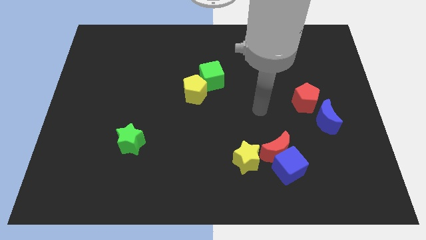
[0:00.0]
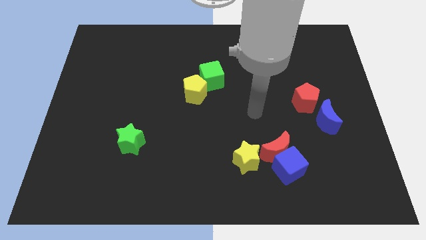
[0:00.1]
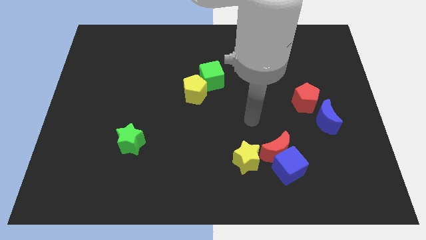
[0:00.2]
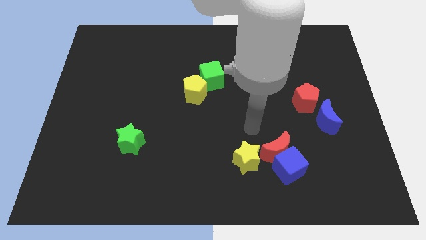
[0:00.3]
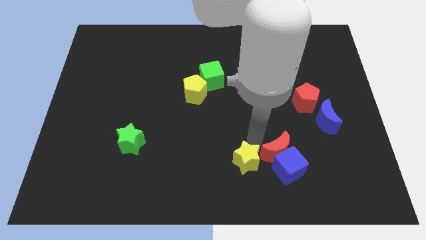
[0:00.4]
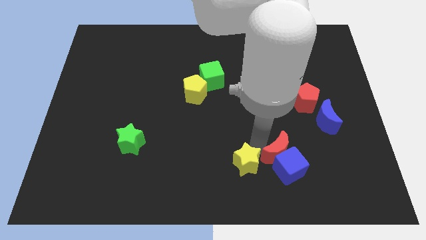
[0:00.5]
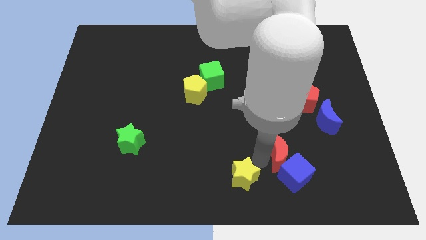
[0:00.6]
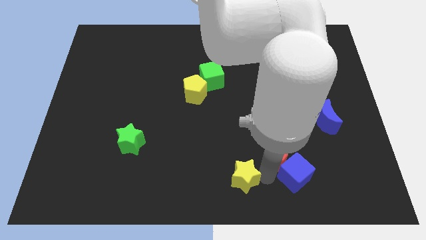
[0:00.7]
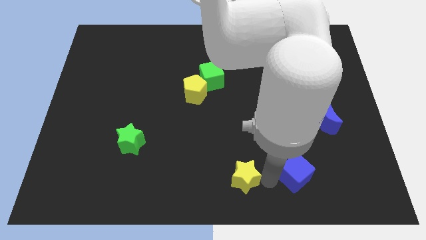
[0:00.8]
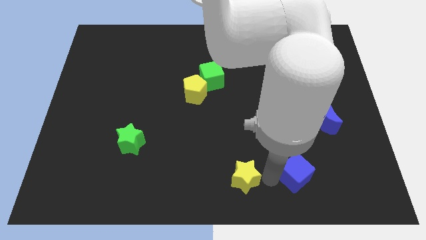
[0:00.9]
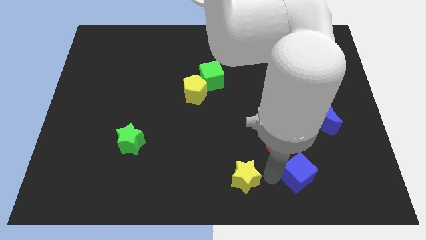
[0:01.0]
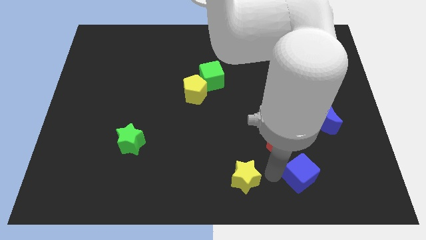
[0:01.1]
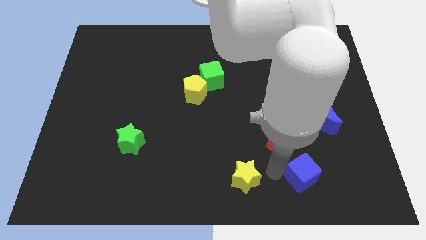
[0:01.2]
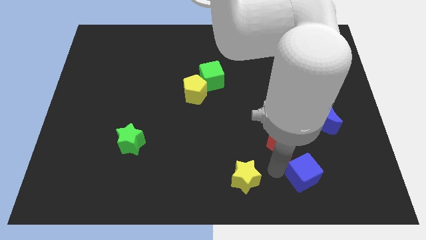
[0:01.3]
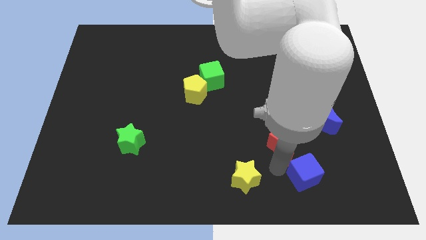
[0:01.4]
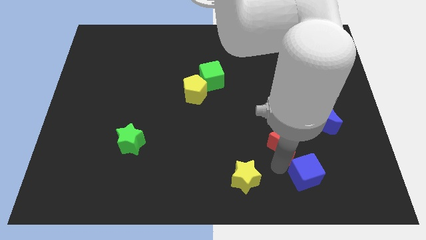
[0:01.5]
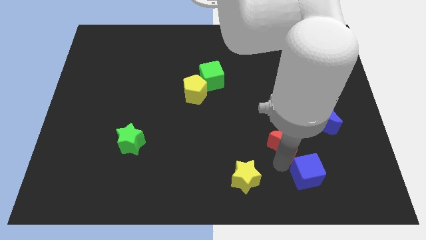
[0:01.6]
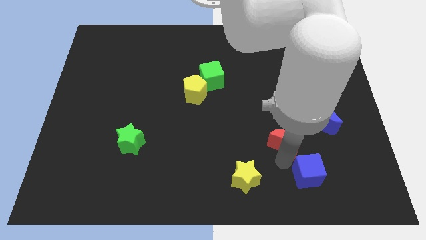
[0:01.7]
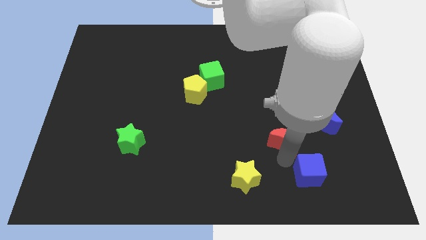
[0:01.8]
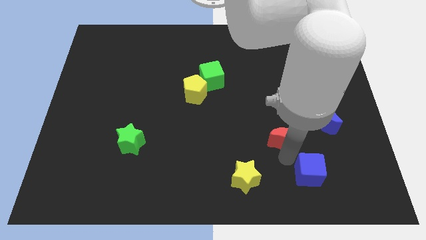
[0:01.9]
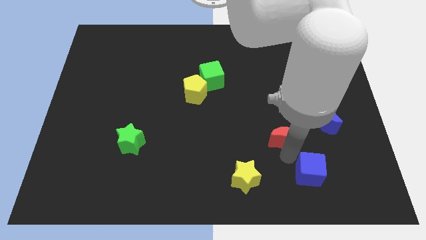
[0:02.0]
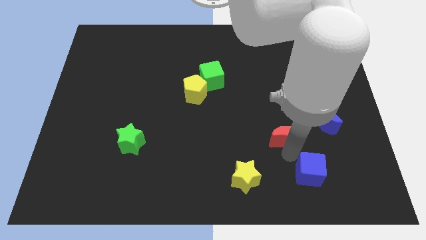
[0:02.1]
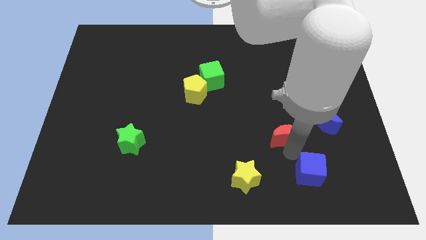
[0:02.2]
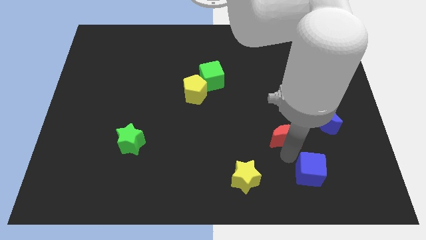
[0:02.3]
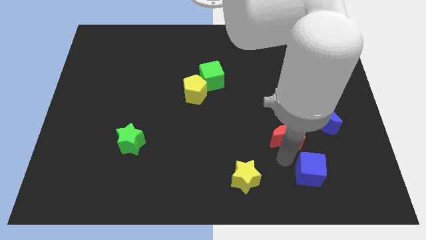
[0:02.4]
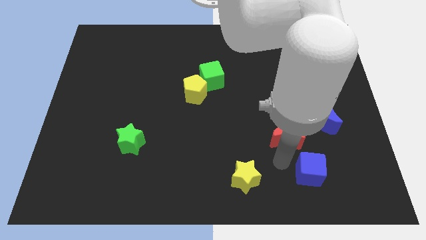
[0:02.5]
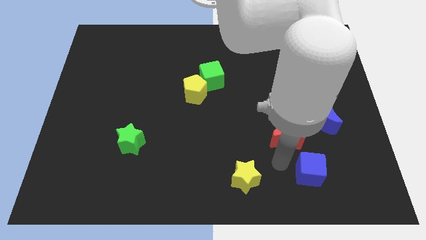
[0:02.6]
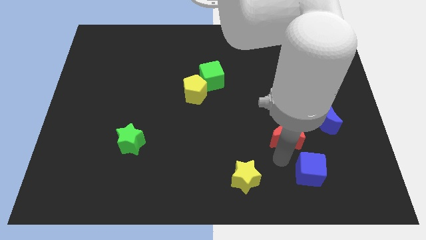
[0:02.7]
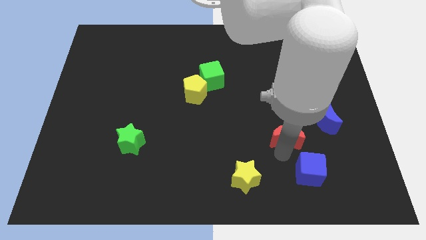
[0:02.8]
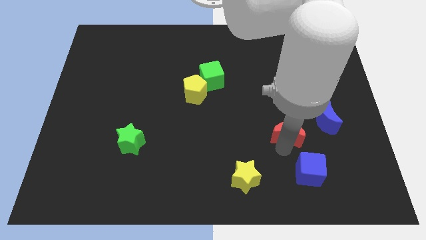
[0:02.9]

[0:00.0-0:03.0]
pull the red moon apart from the blue cube and yellow star

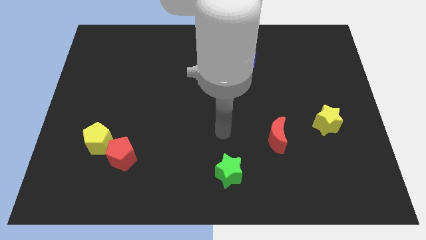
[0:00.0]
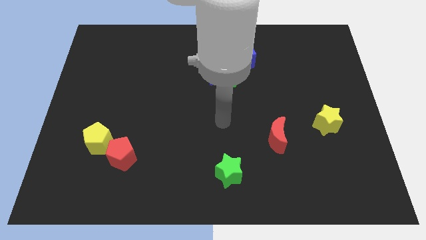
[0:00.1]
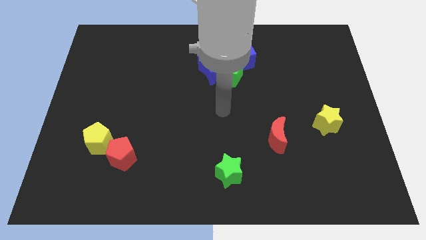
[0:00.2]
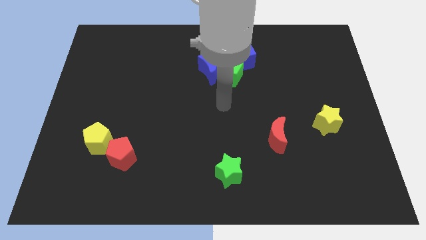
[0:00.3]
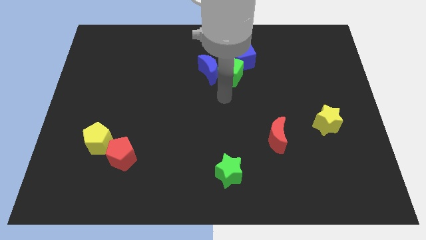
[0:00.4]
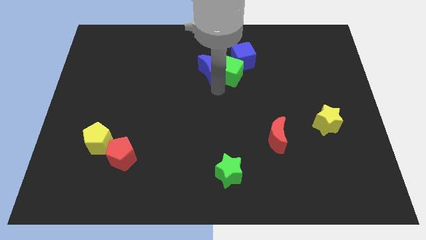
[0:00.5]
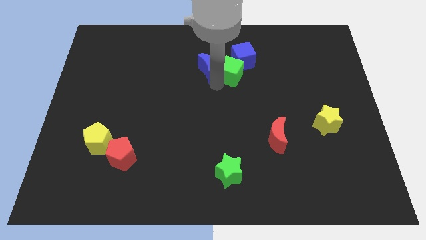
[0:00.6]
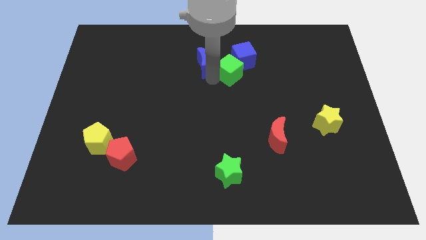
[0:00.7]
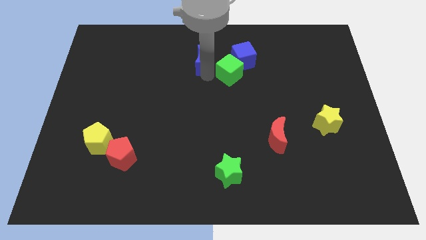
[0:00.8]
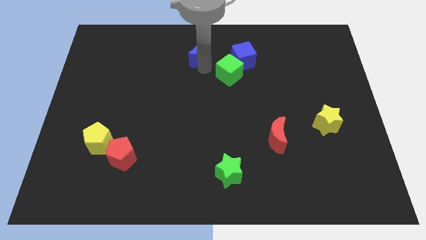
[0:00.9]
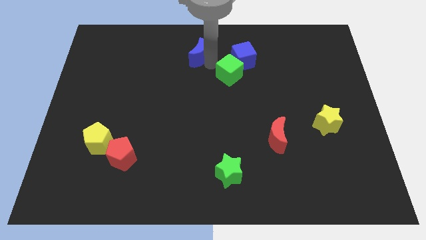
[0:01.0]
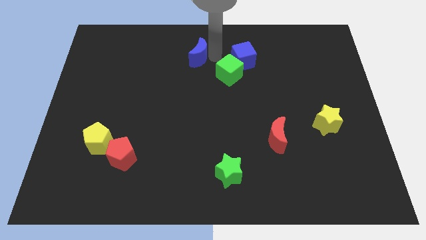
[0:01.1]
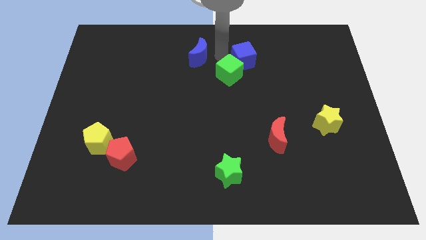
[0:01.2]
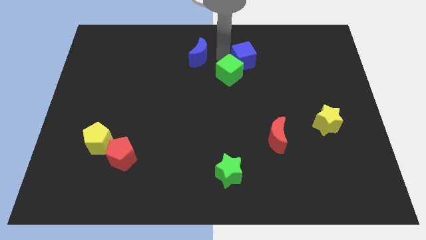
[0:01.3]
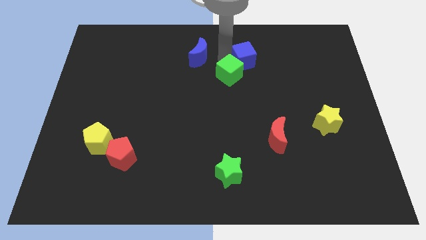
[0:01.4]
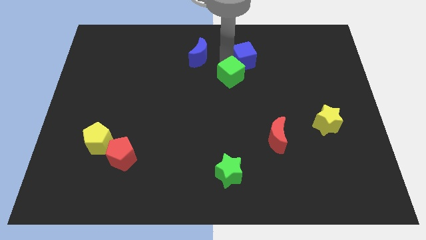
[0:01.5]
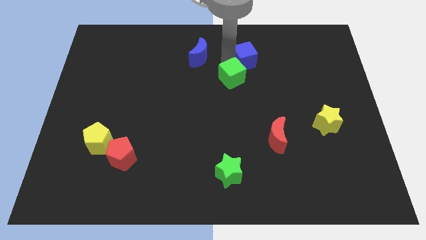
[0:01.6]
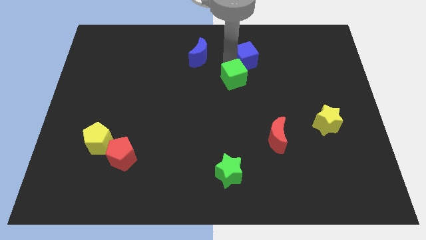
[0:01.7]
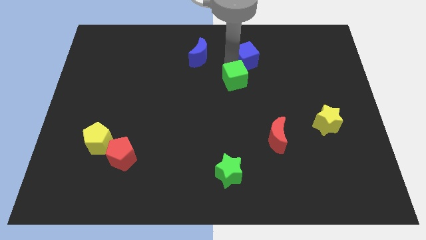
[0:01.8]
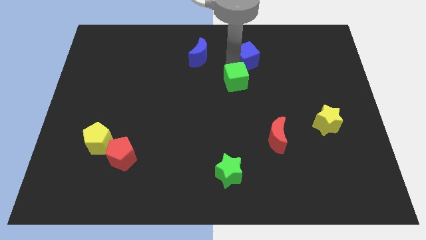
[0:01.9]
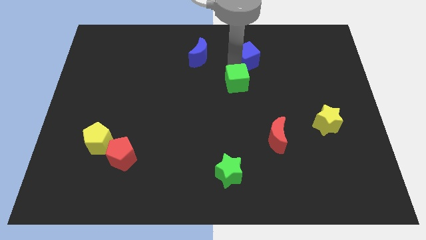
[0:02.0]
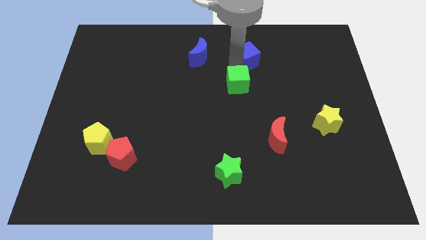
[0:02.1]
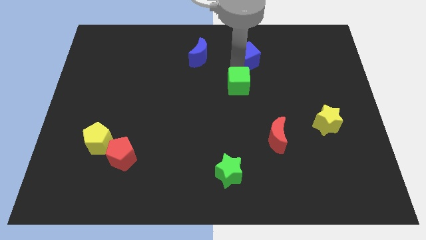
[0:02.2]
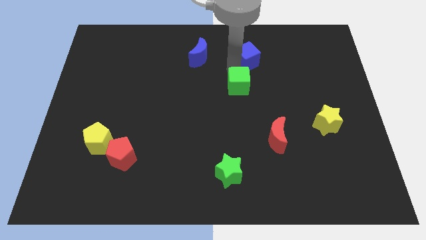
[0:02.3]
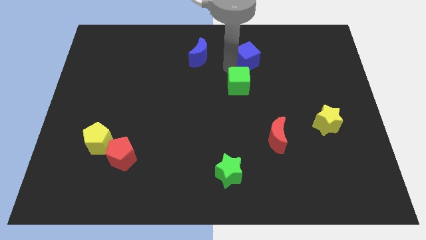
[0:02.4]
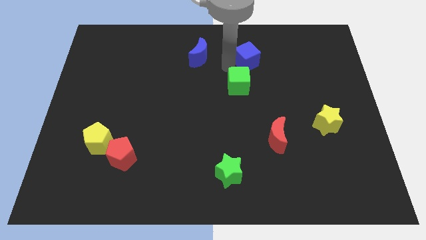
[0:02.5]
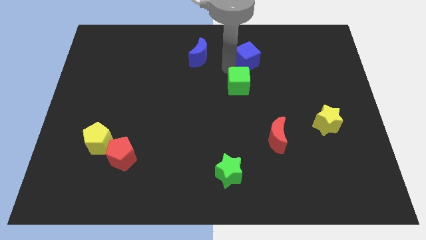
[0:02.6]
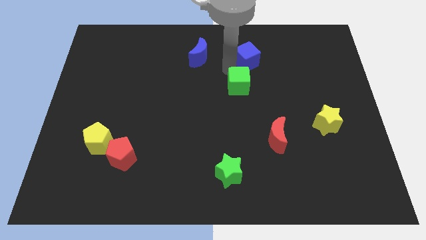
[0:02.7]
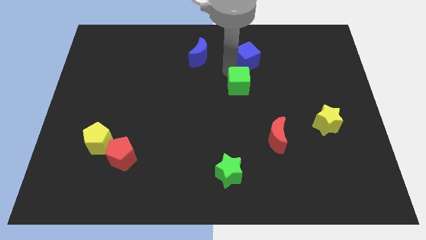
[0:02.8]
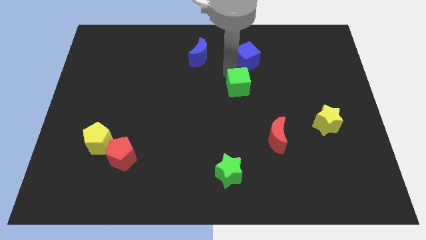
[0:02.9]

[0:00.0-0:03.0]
move the green cube away from the blue moon and blue cube

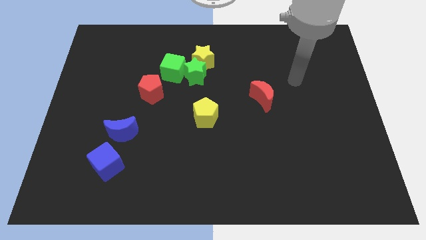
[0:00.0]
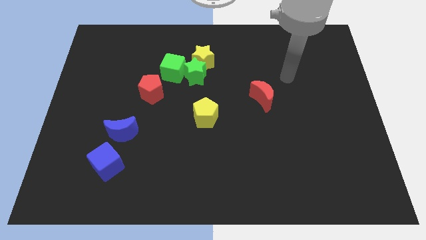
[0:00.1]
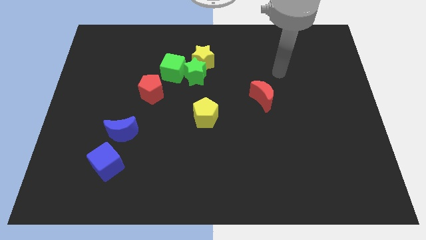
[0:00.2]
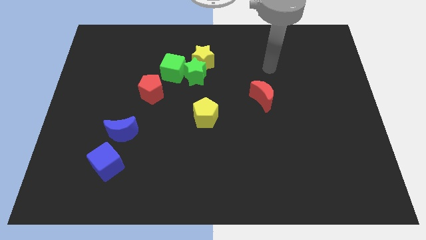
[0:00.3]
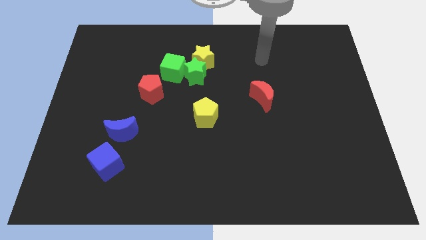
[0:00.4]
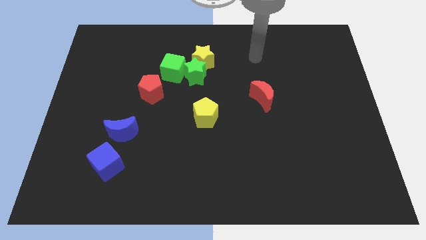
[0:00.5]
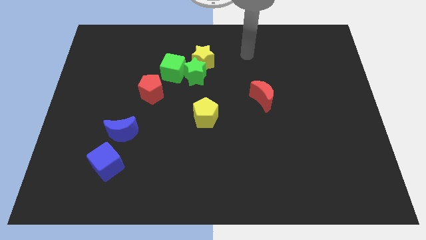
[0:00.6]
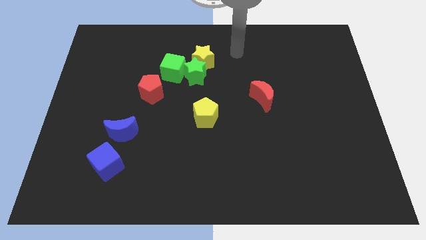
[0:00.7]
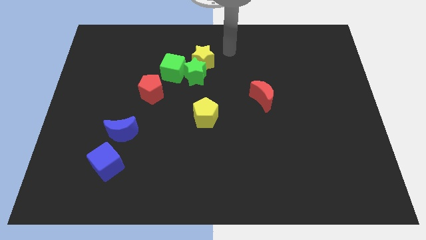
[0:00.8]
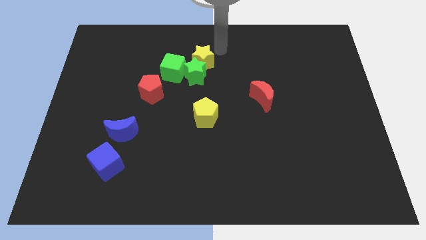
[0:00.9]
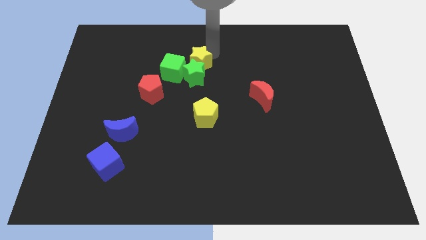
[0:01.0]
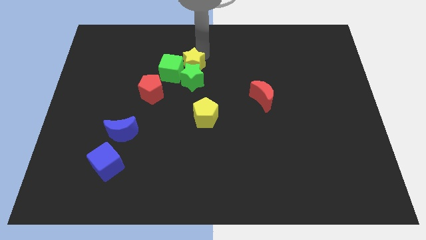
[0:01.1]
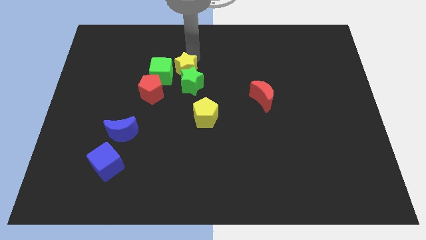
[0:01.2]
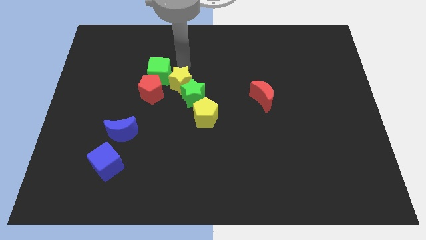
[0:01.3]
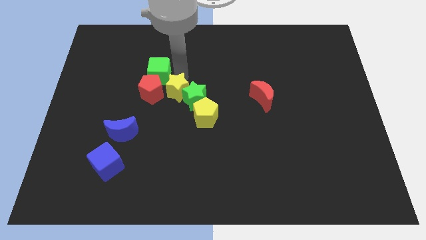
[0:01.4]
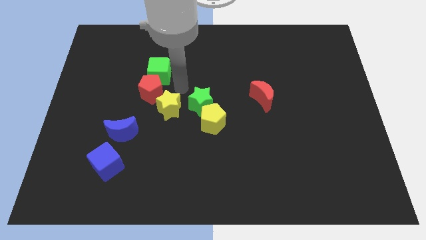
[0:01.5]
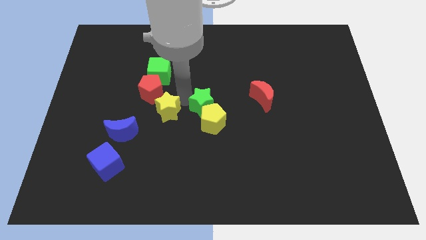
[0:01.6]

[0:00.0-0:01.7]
move the green star away from the yellow star and green cube

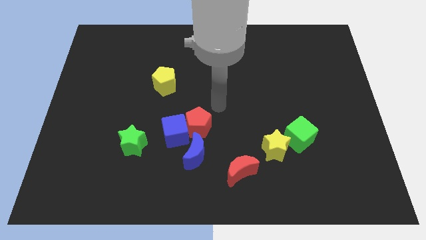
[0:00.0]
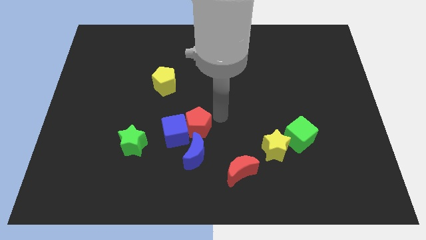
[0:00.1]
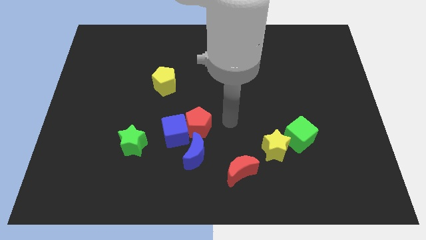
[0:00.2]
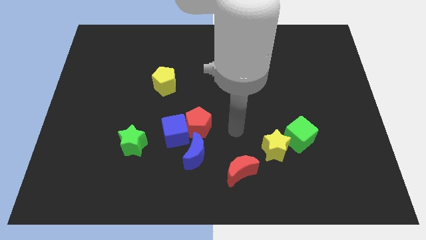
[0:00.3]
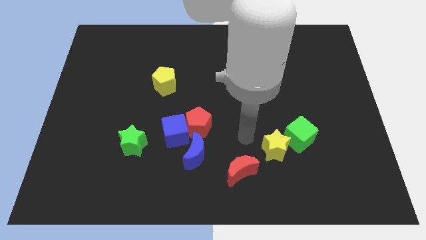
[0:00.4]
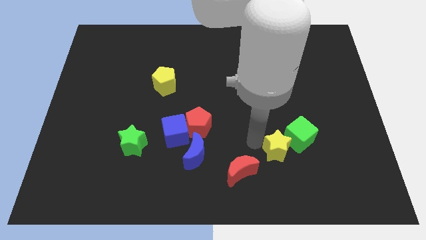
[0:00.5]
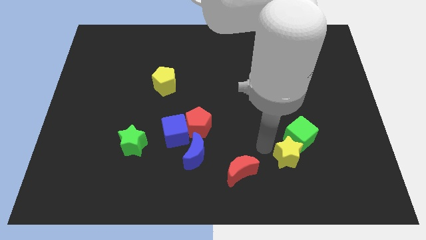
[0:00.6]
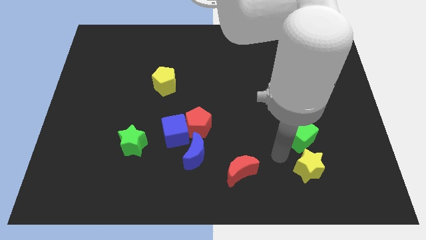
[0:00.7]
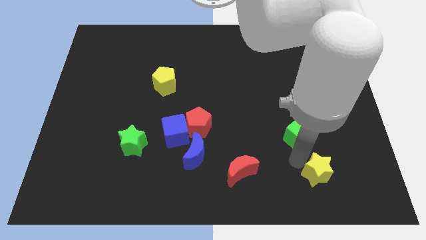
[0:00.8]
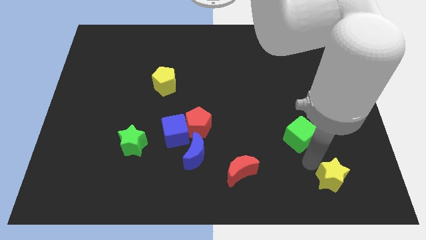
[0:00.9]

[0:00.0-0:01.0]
pull the green cube apart from the yellow star

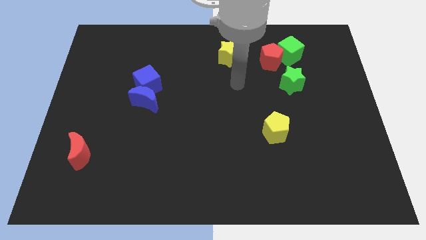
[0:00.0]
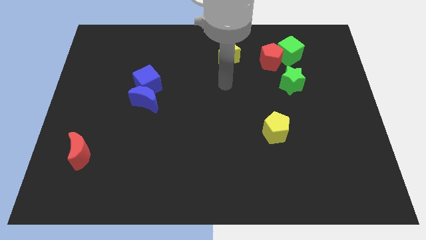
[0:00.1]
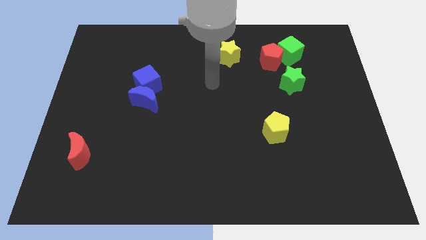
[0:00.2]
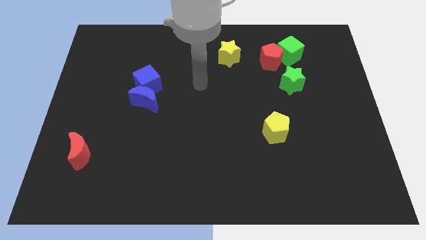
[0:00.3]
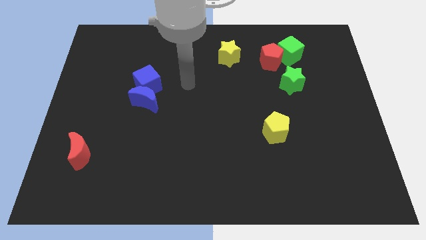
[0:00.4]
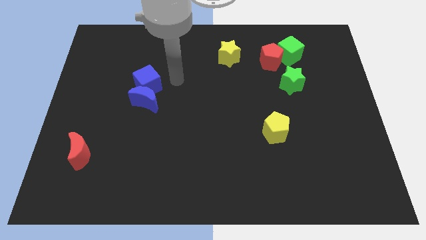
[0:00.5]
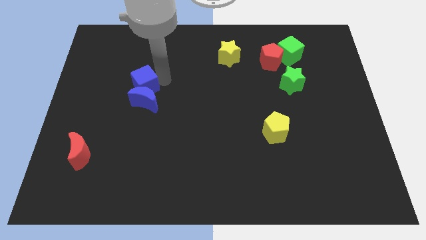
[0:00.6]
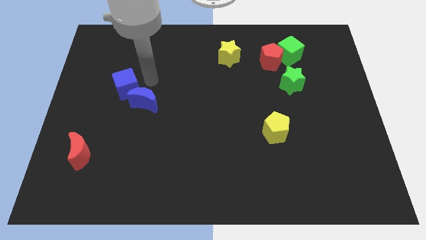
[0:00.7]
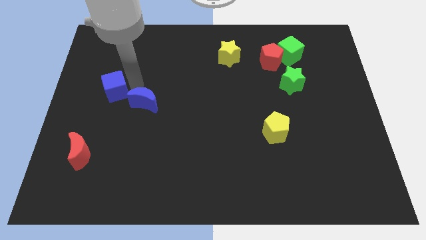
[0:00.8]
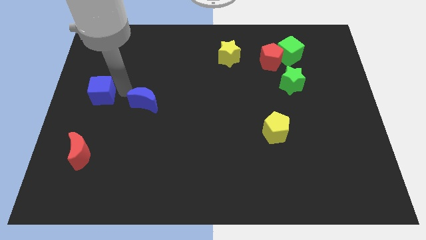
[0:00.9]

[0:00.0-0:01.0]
move the blue moon away from the blue cube
